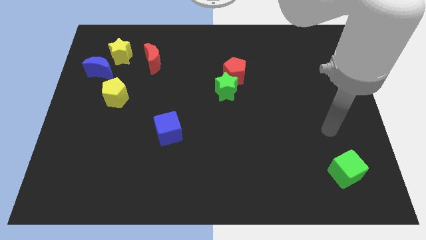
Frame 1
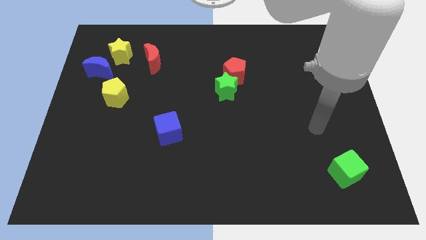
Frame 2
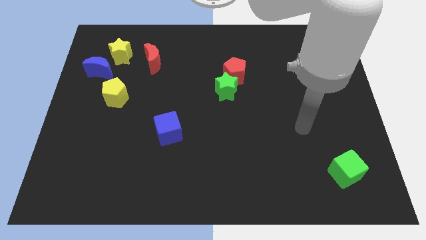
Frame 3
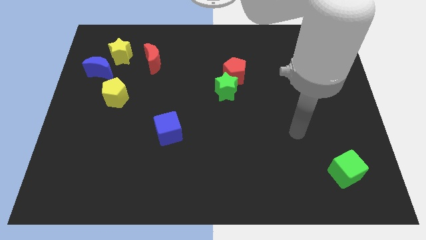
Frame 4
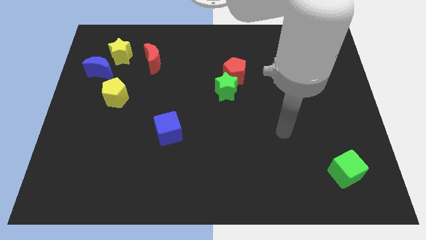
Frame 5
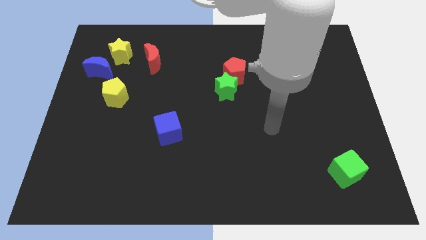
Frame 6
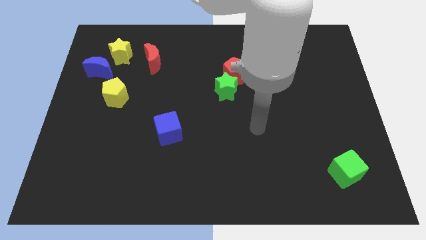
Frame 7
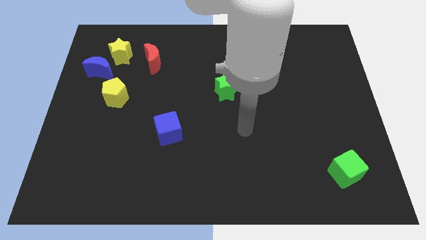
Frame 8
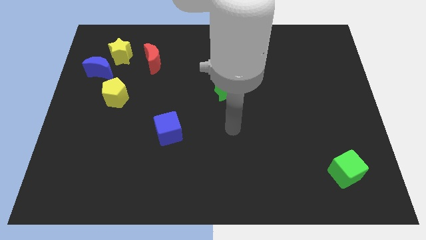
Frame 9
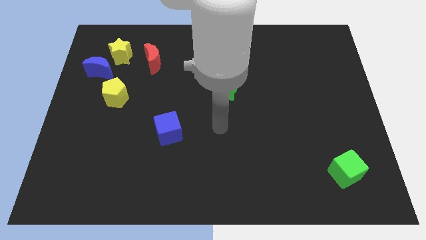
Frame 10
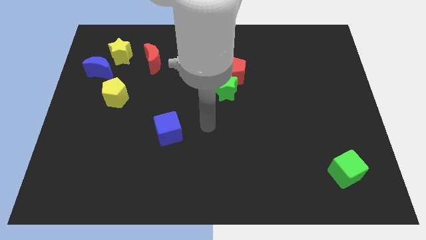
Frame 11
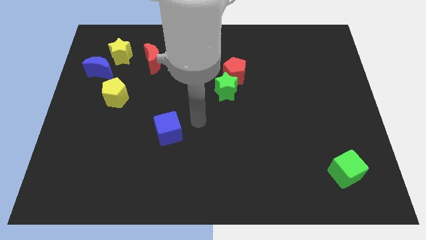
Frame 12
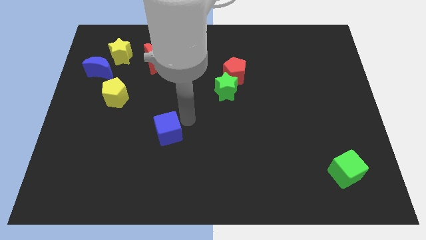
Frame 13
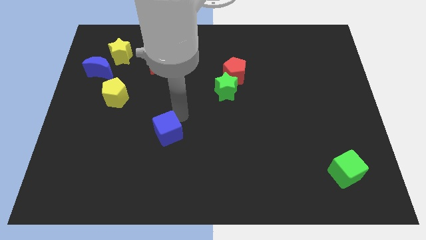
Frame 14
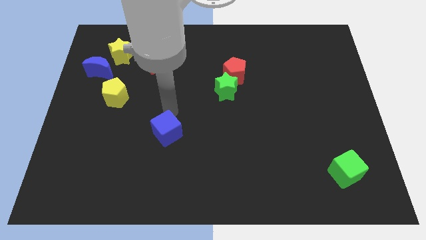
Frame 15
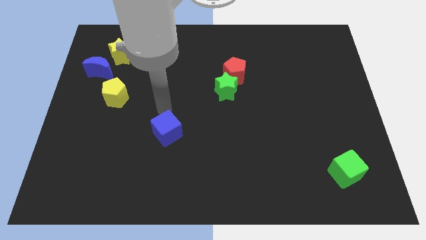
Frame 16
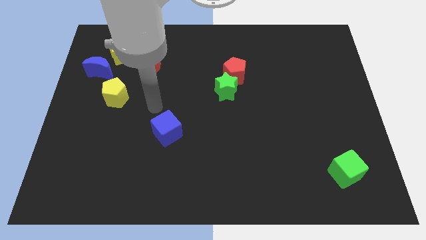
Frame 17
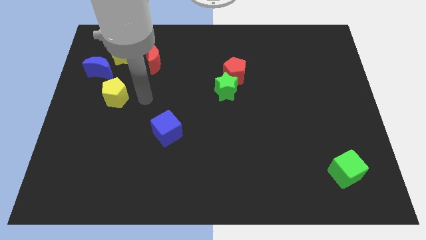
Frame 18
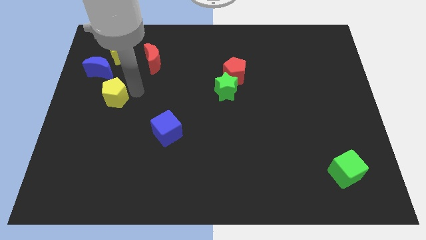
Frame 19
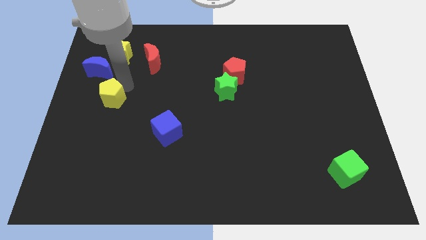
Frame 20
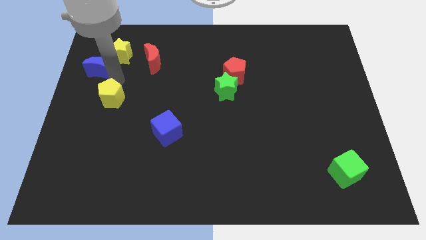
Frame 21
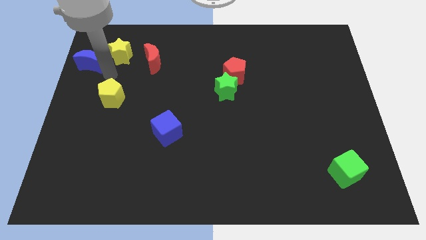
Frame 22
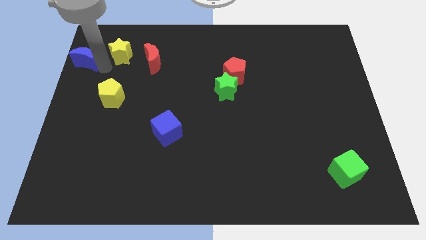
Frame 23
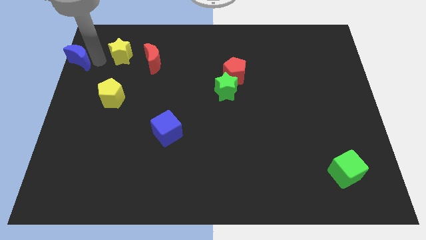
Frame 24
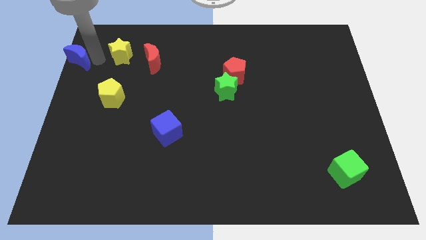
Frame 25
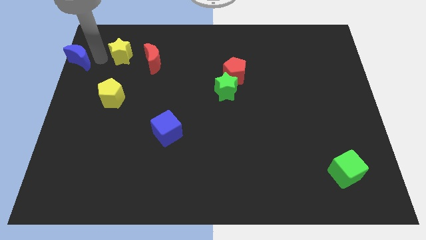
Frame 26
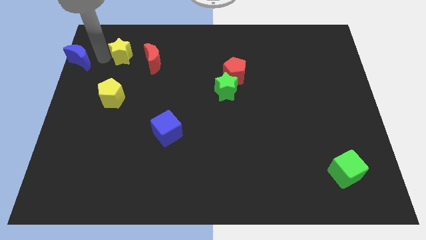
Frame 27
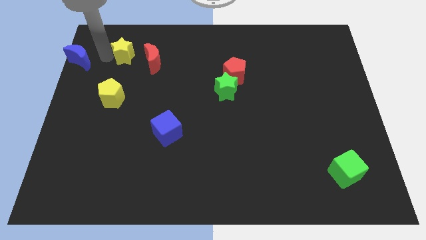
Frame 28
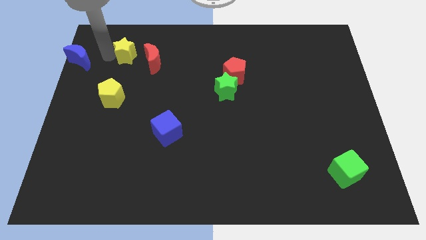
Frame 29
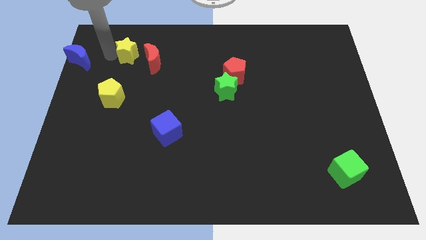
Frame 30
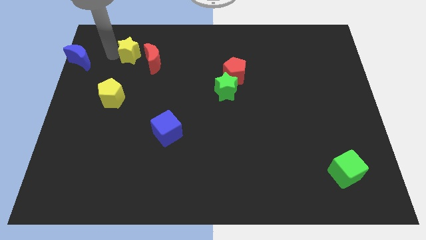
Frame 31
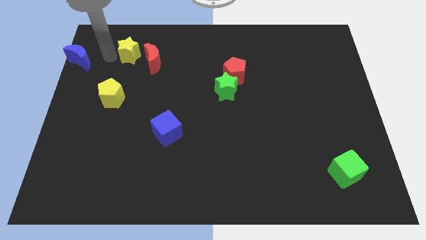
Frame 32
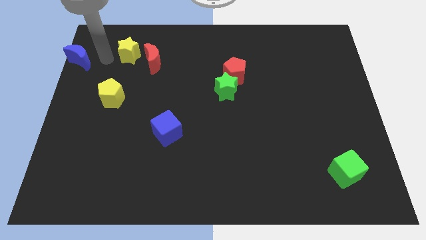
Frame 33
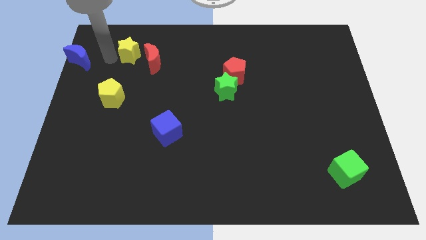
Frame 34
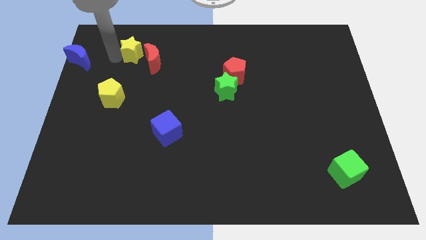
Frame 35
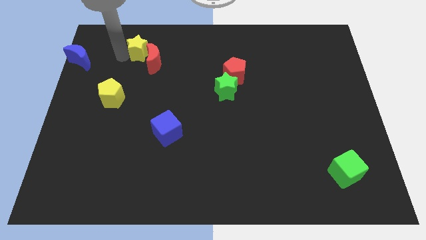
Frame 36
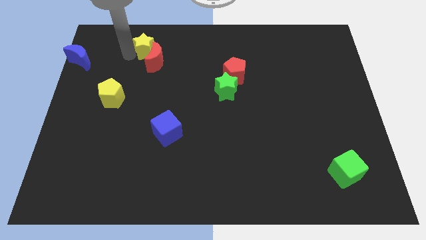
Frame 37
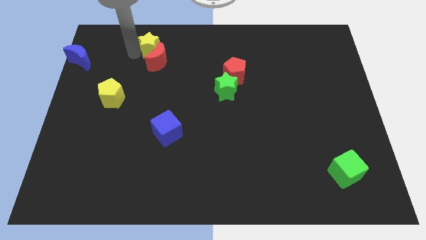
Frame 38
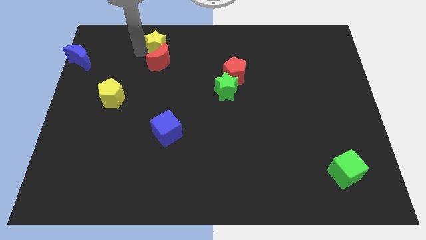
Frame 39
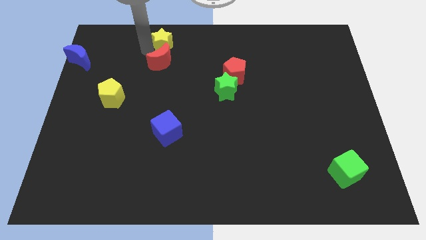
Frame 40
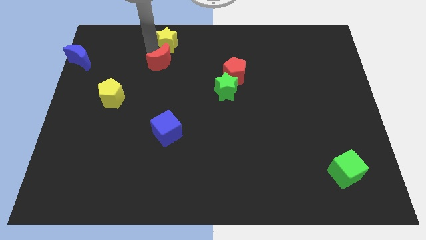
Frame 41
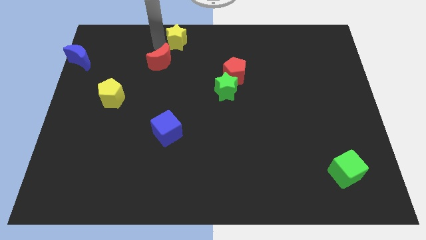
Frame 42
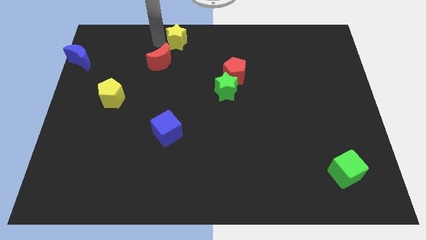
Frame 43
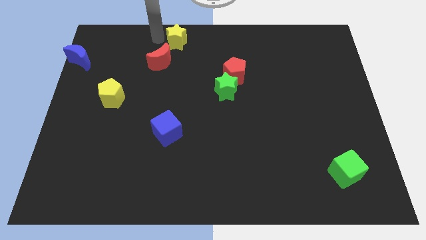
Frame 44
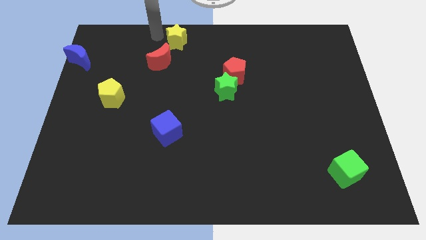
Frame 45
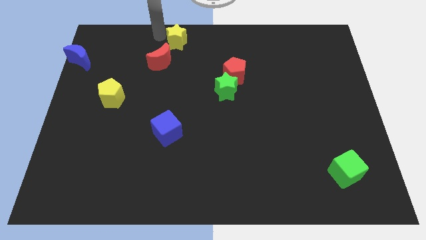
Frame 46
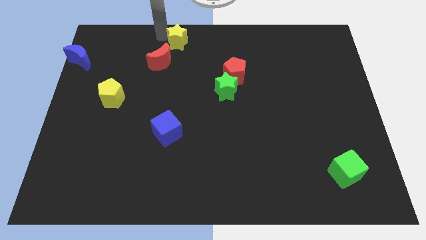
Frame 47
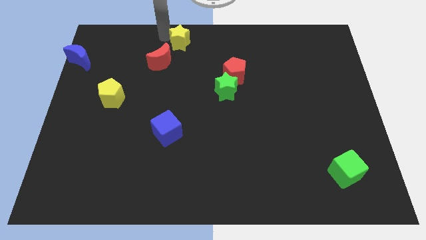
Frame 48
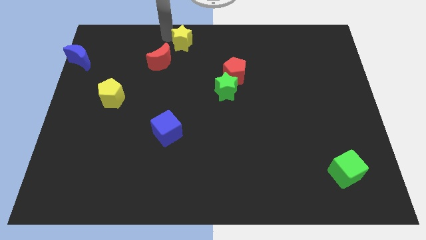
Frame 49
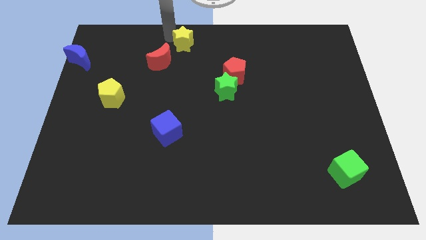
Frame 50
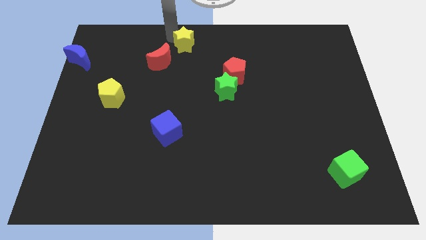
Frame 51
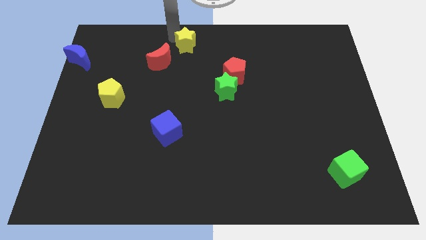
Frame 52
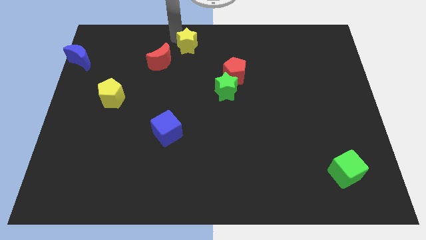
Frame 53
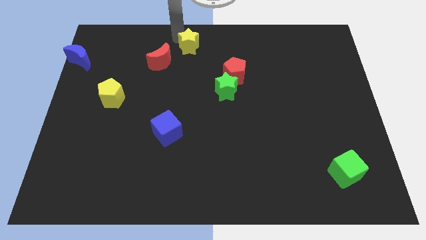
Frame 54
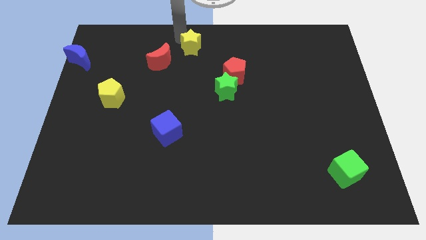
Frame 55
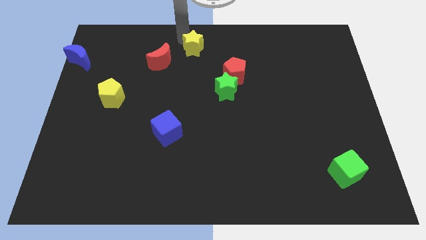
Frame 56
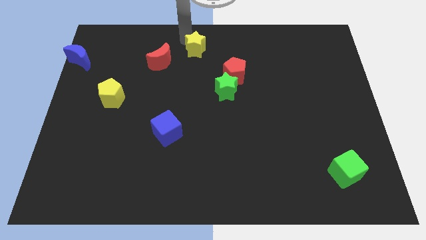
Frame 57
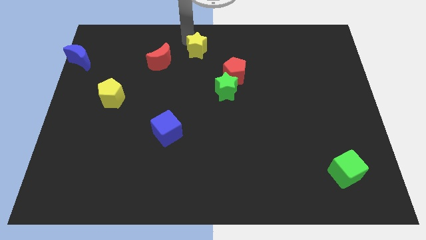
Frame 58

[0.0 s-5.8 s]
move the yellow star right

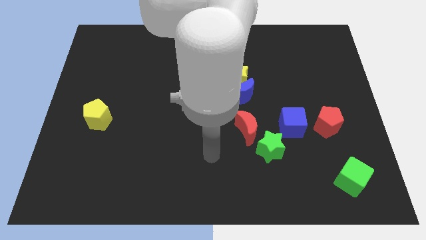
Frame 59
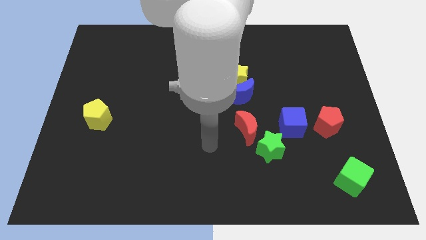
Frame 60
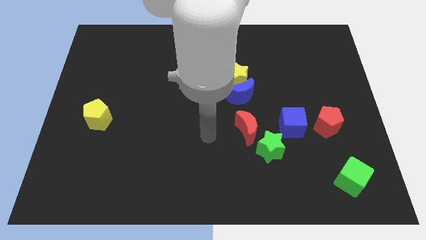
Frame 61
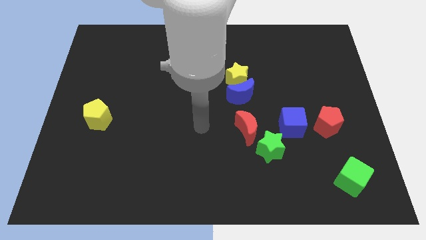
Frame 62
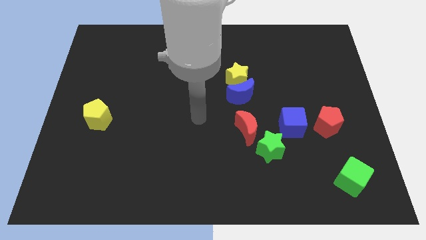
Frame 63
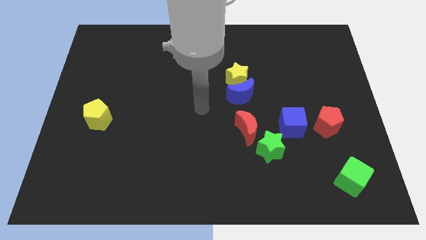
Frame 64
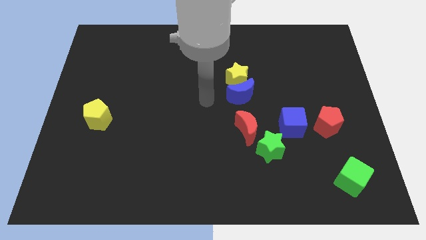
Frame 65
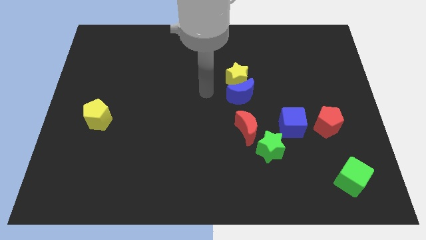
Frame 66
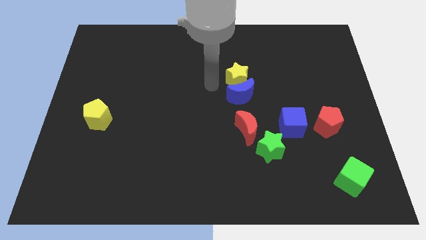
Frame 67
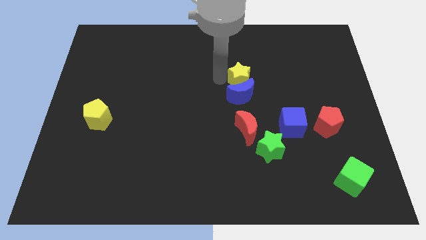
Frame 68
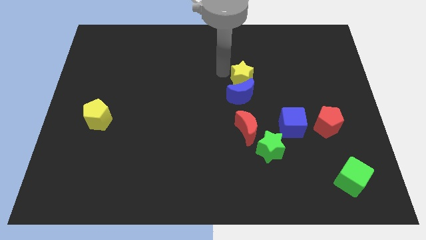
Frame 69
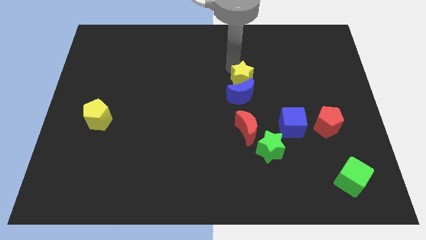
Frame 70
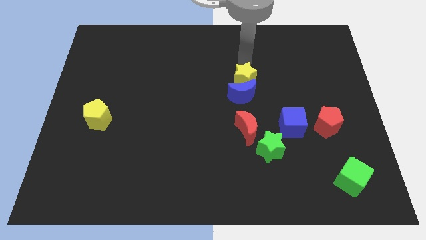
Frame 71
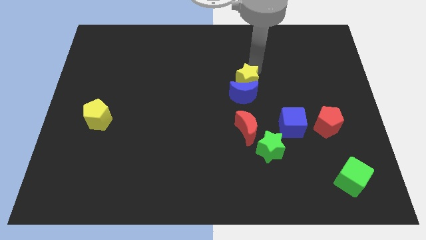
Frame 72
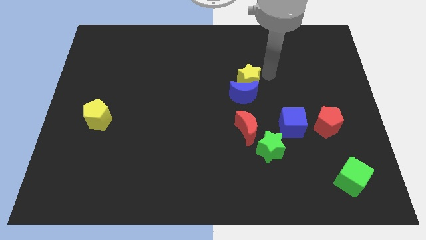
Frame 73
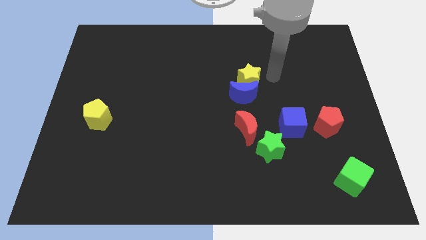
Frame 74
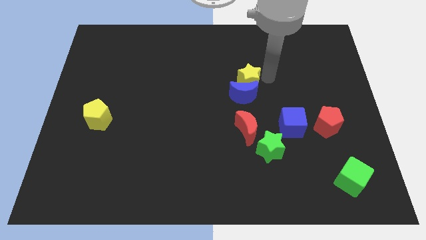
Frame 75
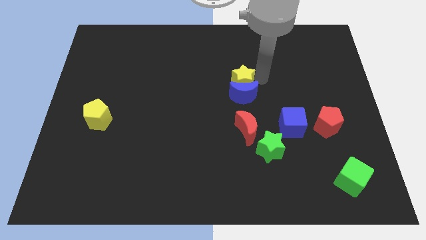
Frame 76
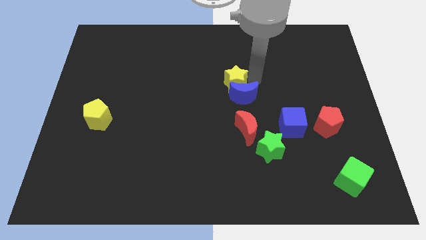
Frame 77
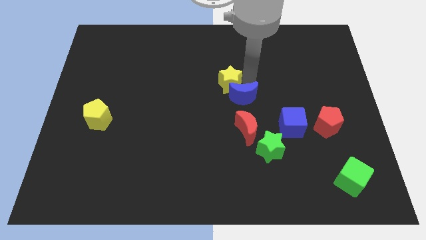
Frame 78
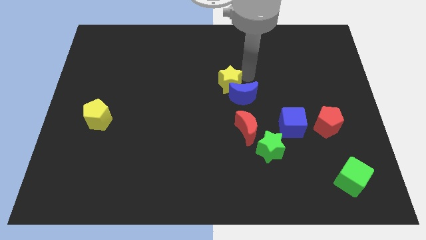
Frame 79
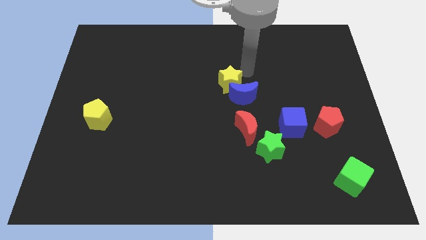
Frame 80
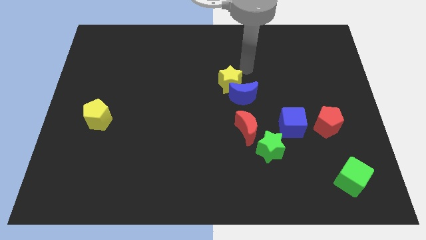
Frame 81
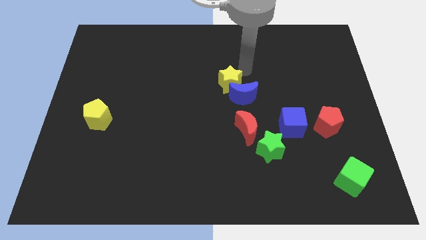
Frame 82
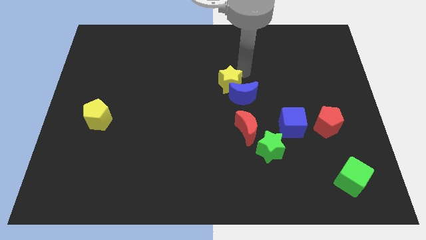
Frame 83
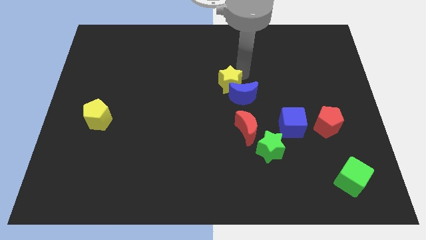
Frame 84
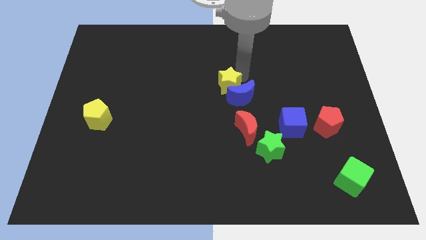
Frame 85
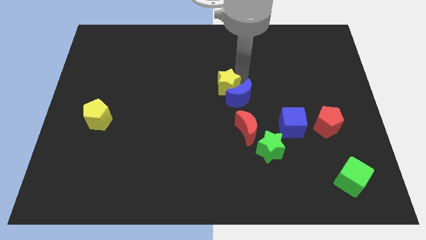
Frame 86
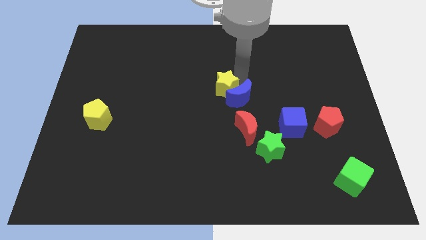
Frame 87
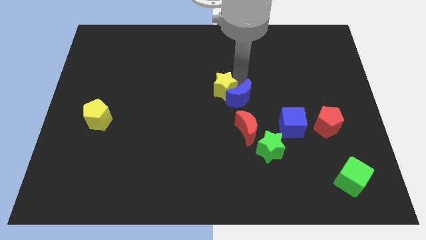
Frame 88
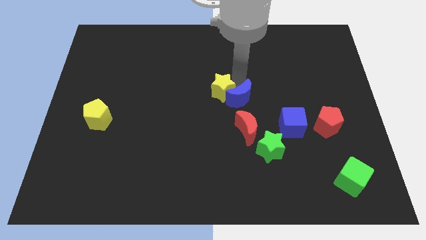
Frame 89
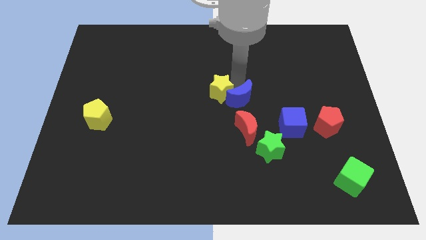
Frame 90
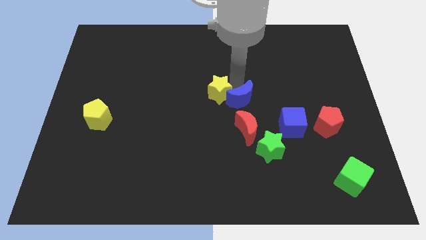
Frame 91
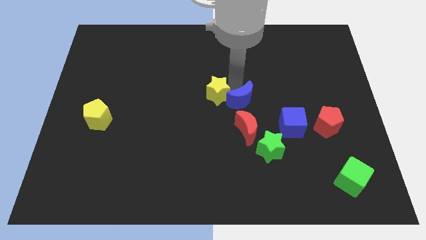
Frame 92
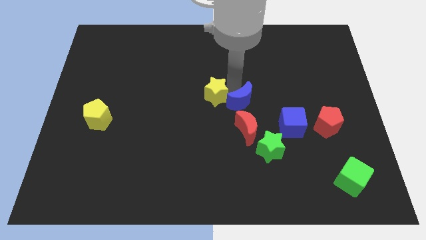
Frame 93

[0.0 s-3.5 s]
slide the yellow star slightly diagonally downwards and left
